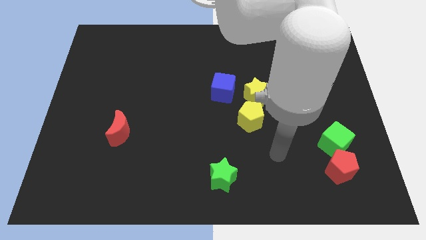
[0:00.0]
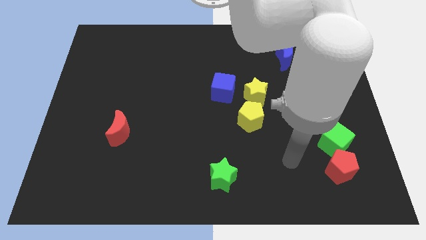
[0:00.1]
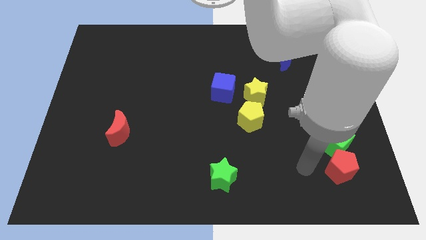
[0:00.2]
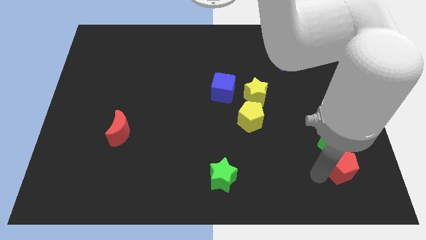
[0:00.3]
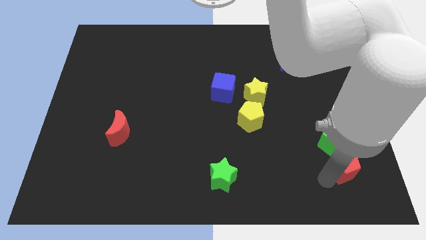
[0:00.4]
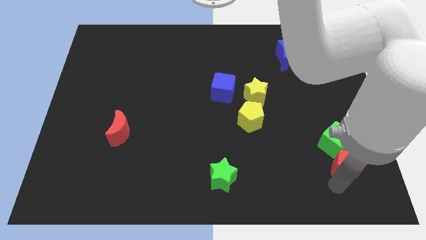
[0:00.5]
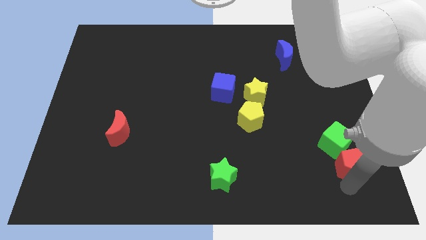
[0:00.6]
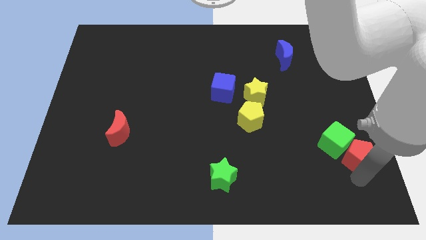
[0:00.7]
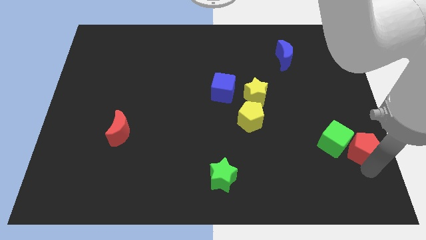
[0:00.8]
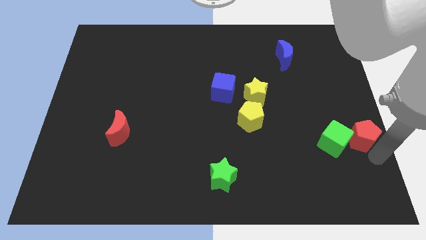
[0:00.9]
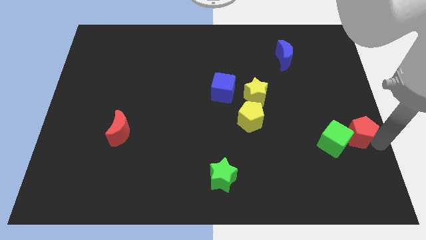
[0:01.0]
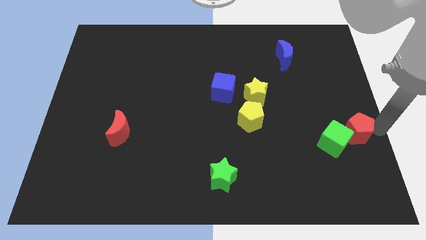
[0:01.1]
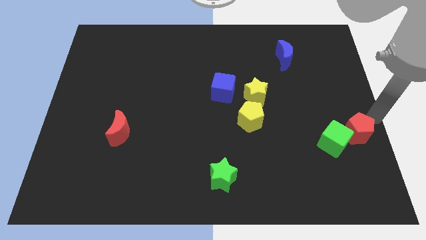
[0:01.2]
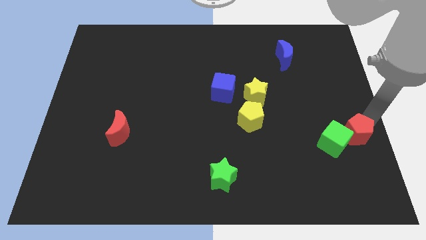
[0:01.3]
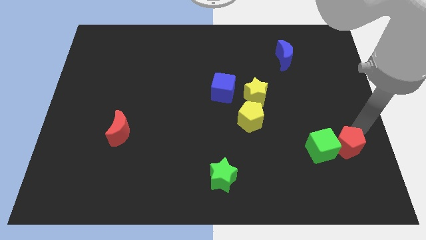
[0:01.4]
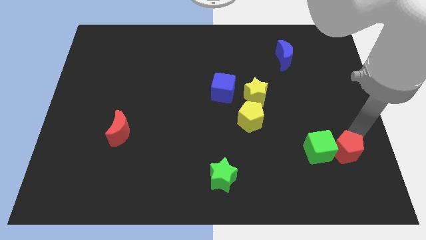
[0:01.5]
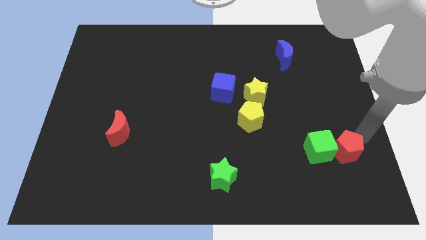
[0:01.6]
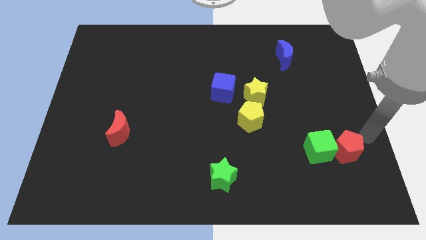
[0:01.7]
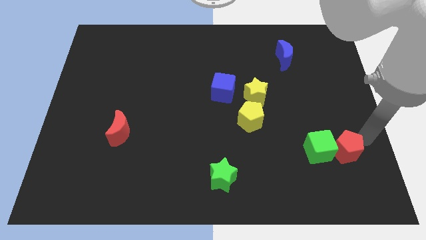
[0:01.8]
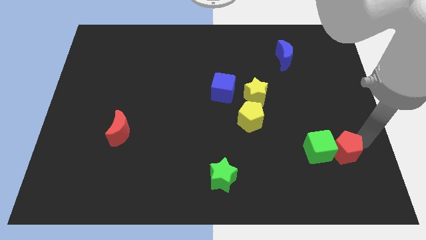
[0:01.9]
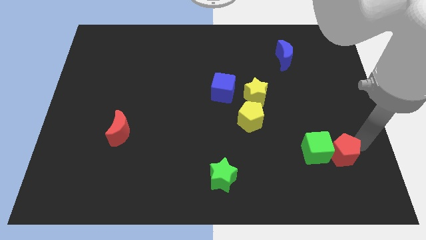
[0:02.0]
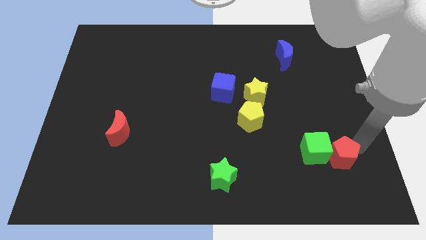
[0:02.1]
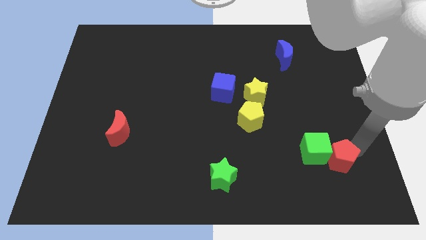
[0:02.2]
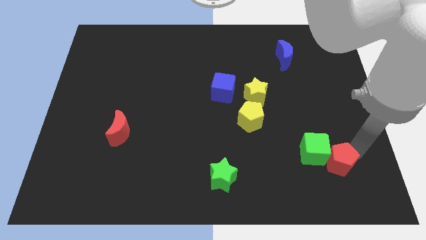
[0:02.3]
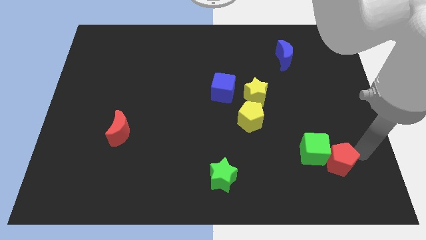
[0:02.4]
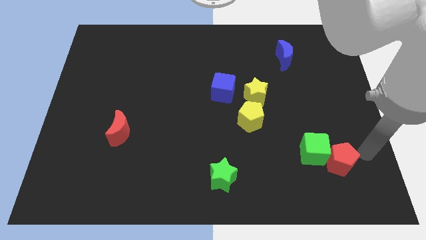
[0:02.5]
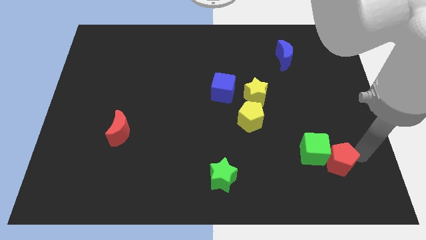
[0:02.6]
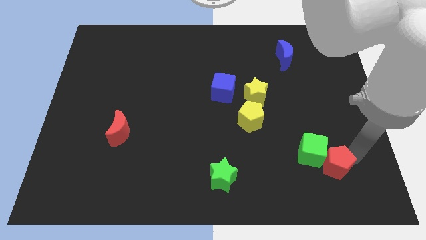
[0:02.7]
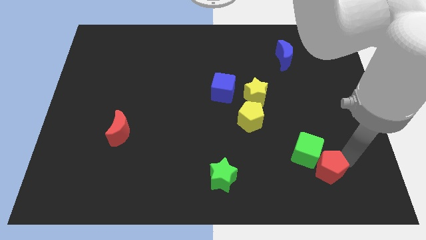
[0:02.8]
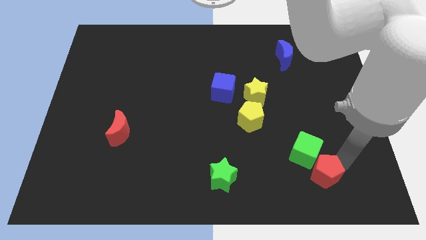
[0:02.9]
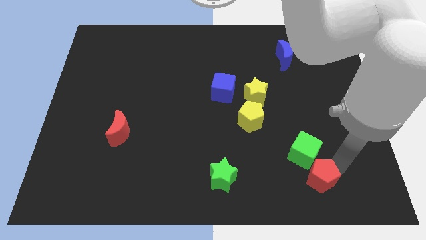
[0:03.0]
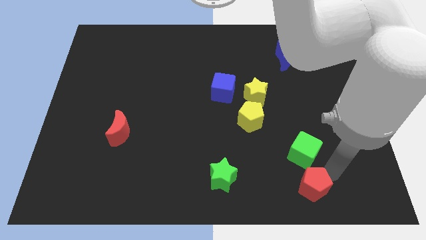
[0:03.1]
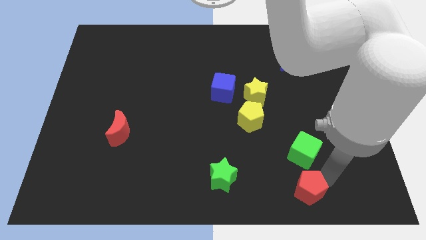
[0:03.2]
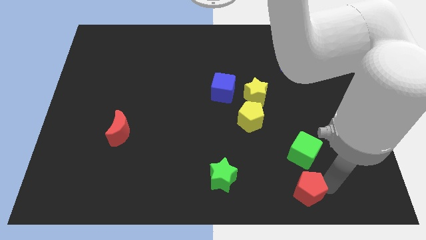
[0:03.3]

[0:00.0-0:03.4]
slide the red pentagon a little bit left

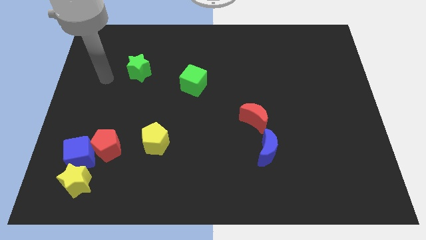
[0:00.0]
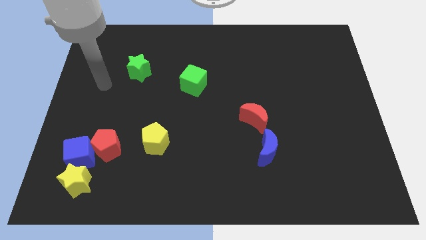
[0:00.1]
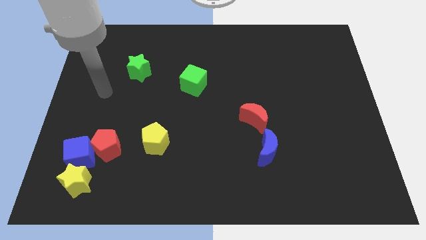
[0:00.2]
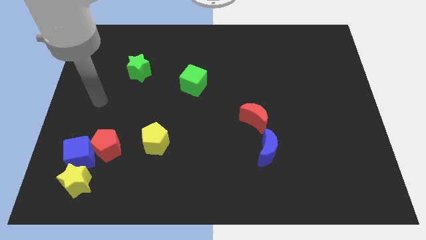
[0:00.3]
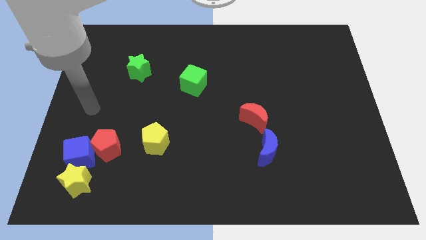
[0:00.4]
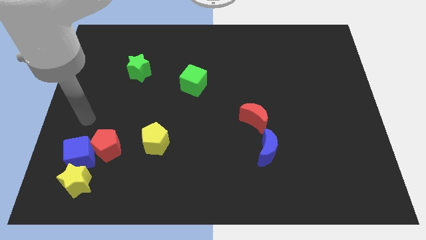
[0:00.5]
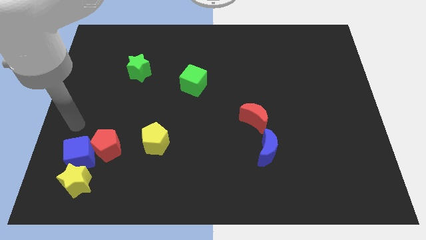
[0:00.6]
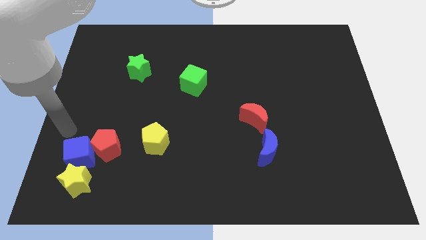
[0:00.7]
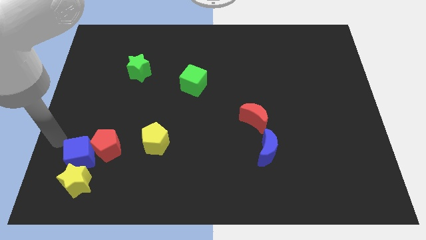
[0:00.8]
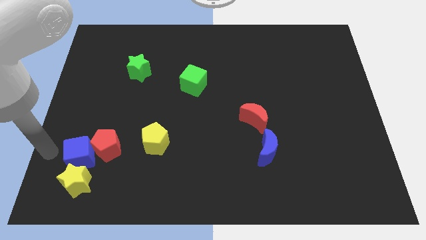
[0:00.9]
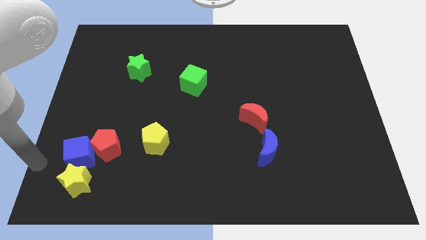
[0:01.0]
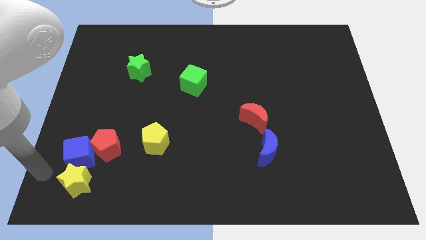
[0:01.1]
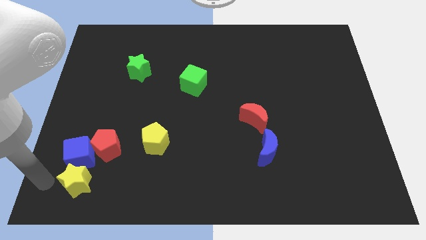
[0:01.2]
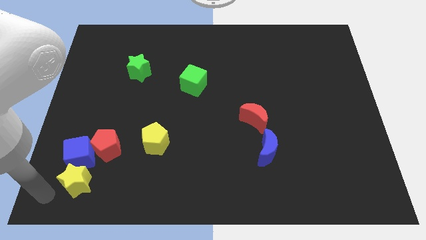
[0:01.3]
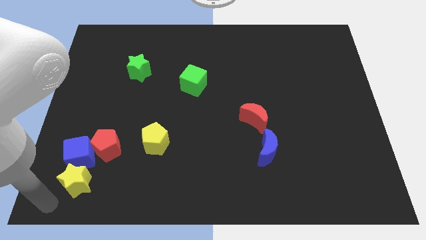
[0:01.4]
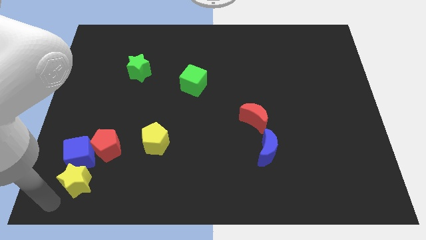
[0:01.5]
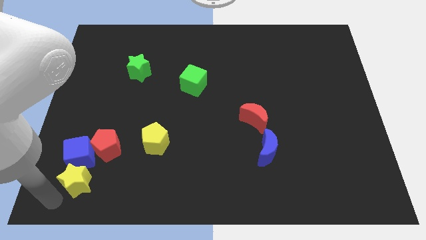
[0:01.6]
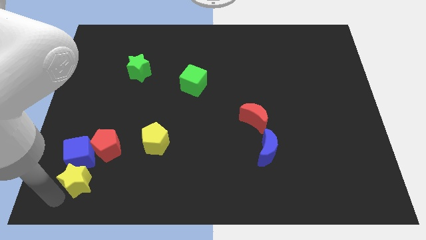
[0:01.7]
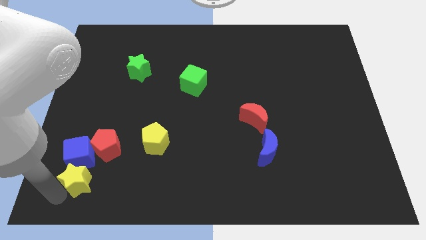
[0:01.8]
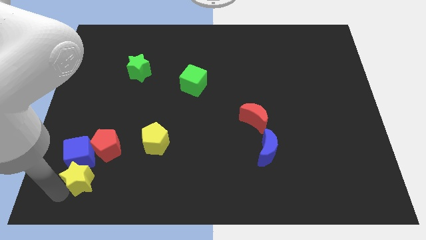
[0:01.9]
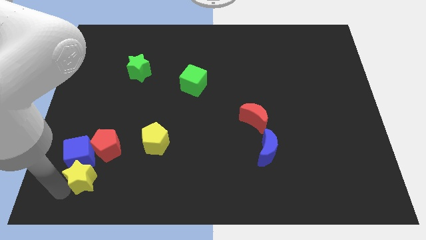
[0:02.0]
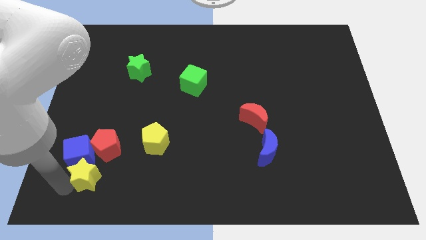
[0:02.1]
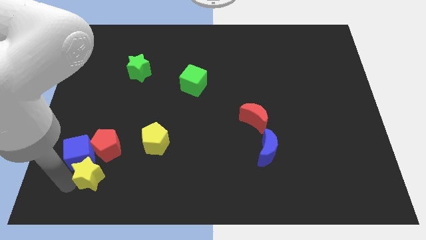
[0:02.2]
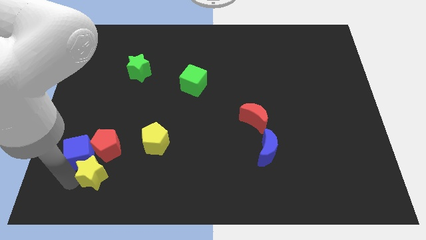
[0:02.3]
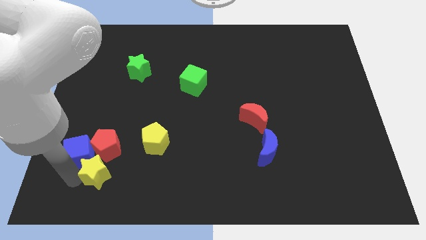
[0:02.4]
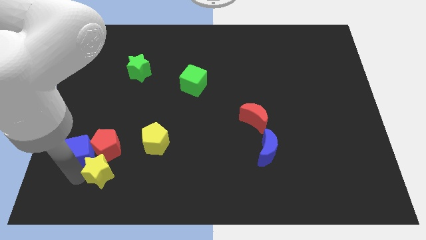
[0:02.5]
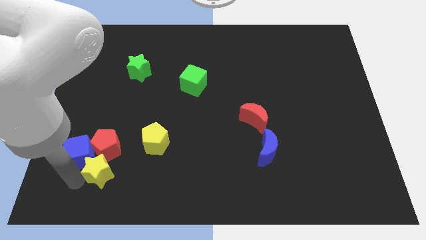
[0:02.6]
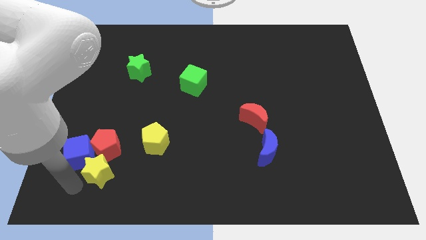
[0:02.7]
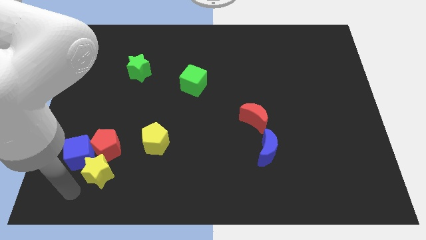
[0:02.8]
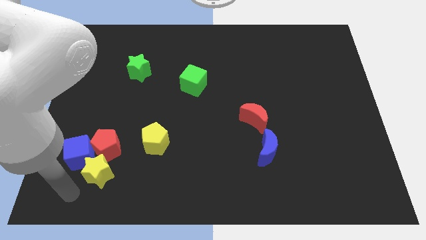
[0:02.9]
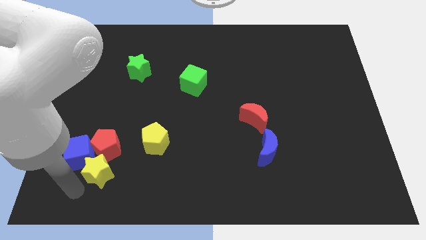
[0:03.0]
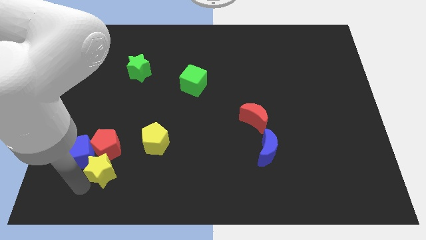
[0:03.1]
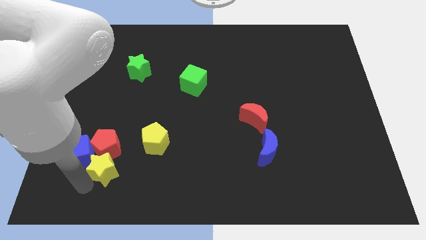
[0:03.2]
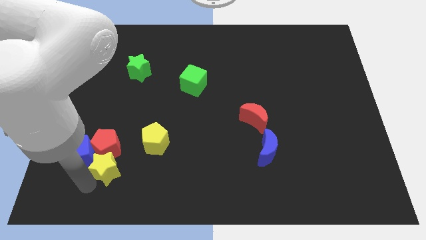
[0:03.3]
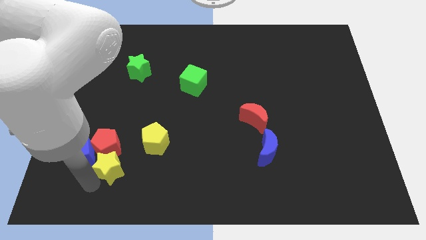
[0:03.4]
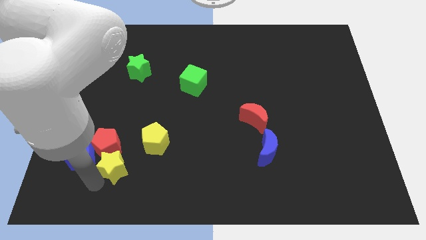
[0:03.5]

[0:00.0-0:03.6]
move the yellow star a little bit up and right

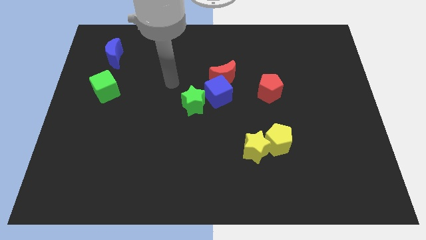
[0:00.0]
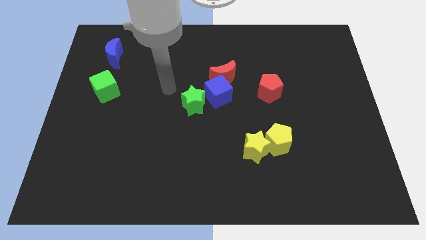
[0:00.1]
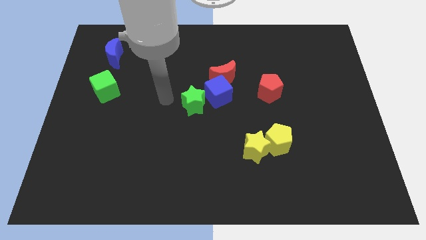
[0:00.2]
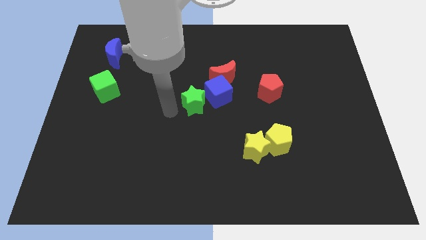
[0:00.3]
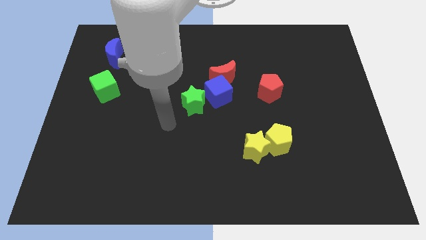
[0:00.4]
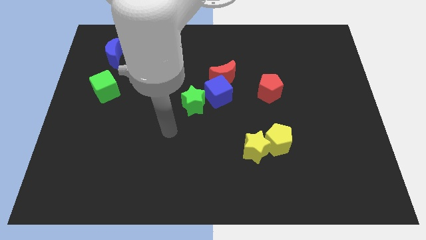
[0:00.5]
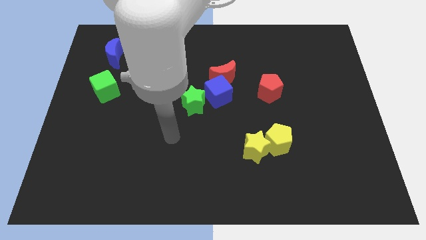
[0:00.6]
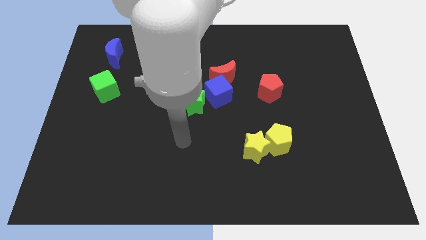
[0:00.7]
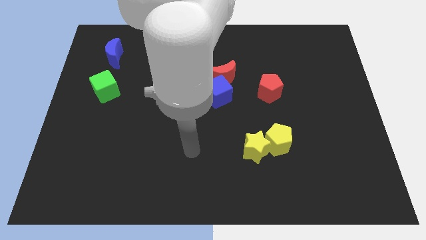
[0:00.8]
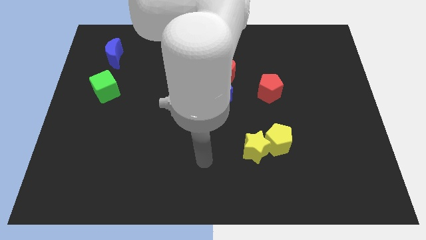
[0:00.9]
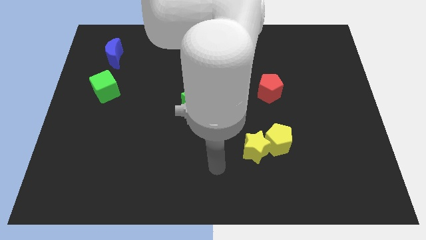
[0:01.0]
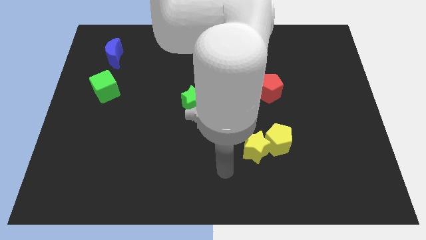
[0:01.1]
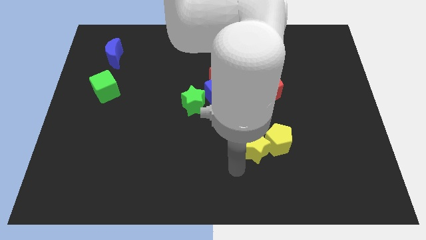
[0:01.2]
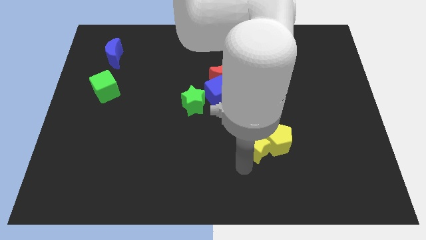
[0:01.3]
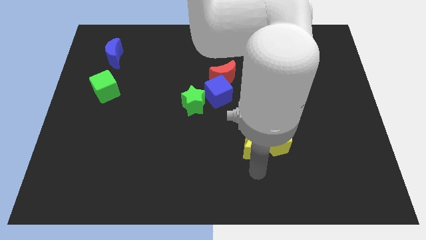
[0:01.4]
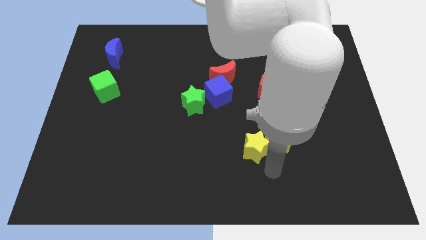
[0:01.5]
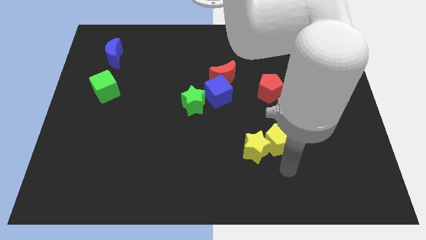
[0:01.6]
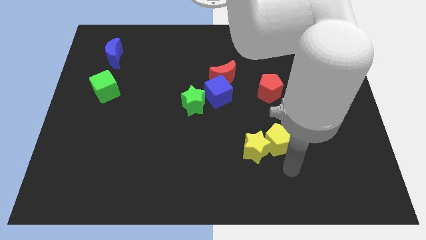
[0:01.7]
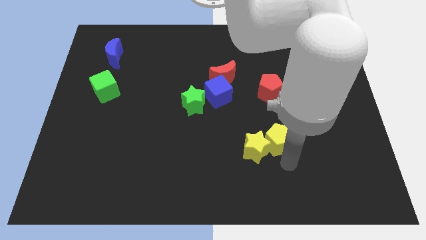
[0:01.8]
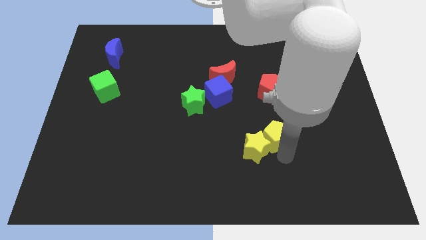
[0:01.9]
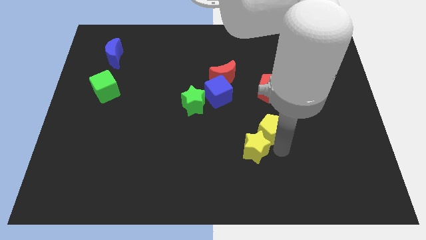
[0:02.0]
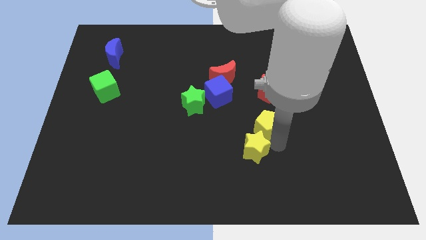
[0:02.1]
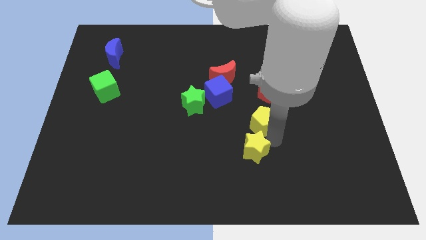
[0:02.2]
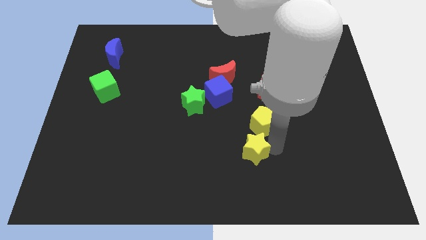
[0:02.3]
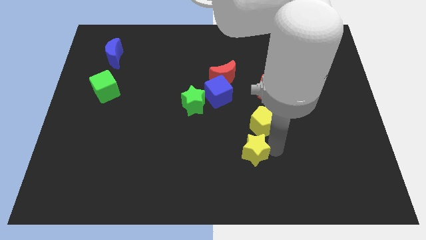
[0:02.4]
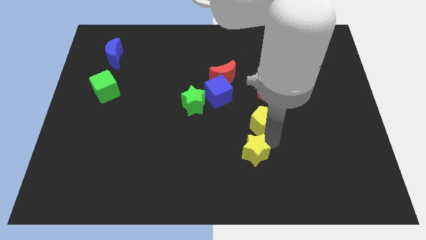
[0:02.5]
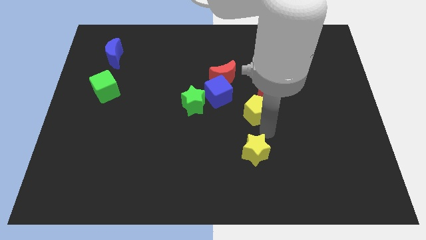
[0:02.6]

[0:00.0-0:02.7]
push the yellow pentagon a little up
